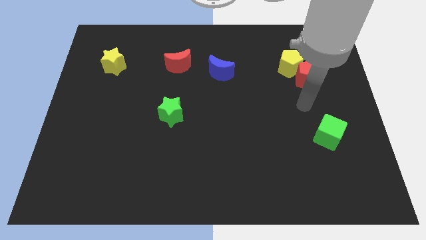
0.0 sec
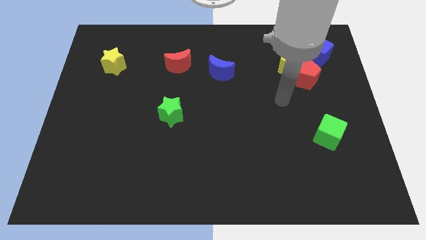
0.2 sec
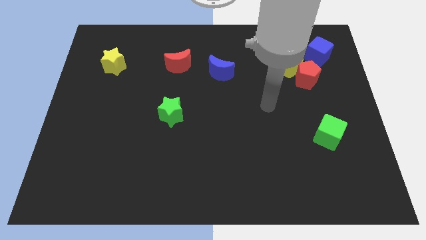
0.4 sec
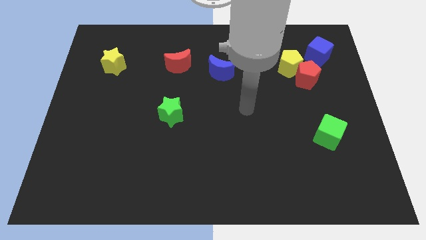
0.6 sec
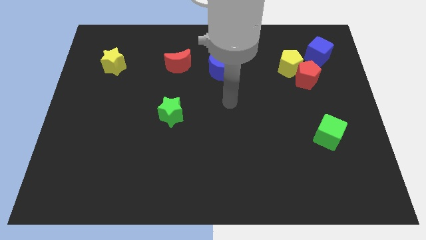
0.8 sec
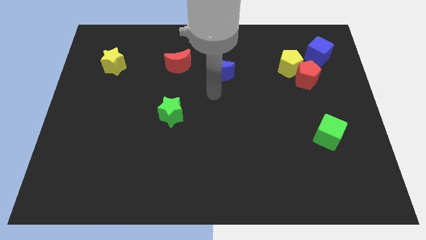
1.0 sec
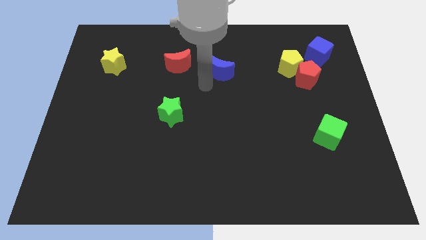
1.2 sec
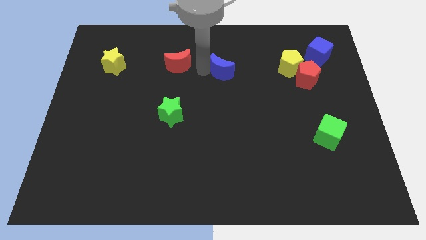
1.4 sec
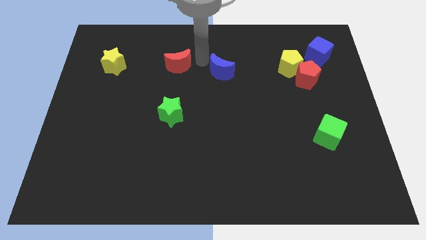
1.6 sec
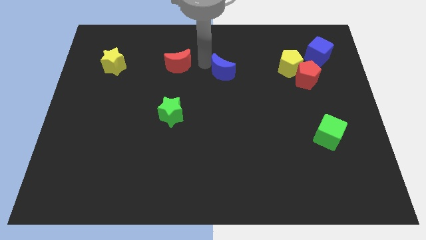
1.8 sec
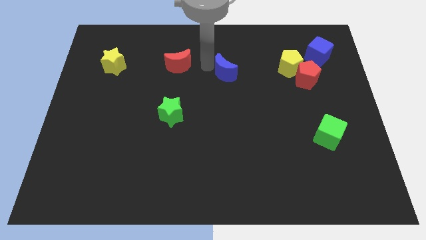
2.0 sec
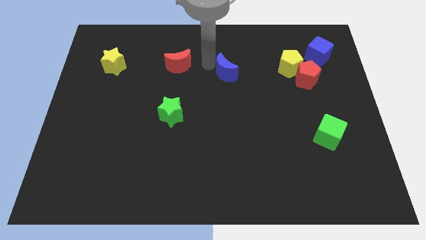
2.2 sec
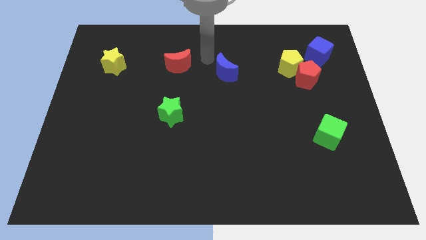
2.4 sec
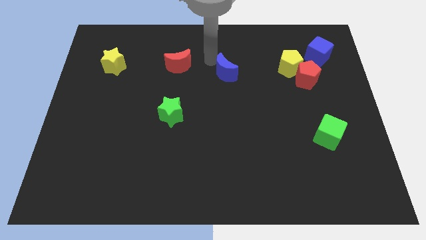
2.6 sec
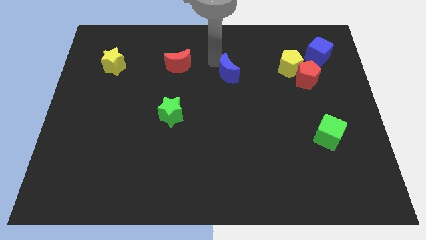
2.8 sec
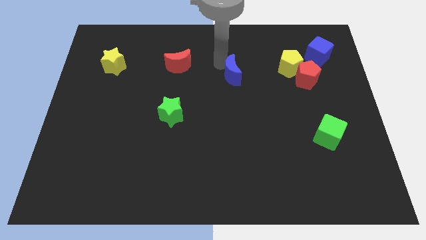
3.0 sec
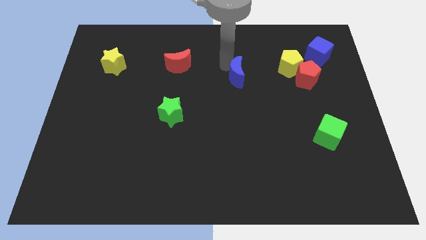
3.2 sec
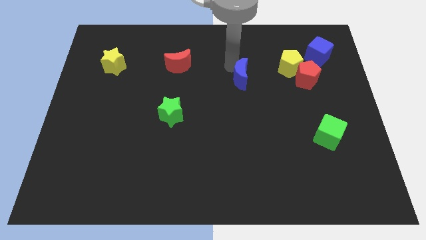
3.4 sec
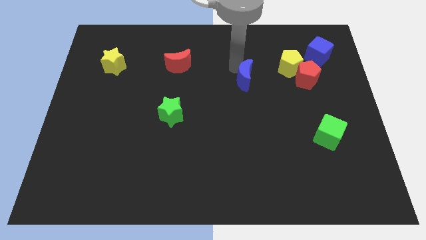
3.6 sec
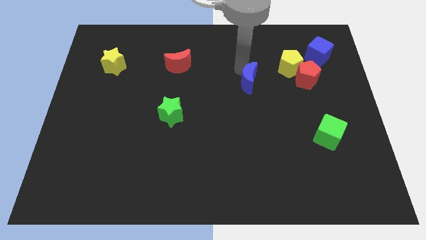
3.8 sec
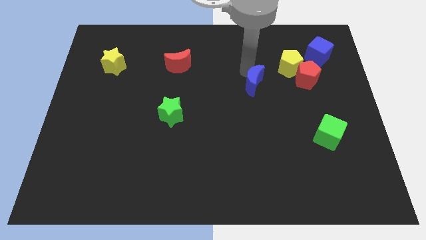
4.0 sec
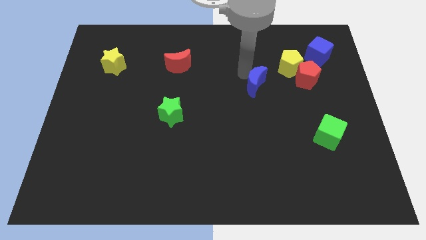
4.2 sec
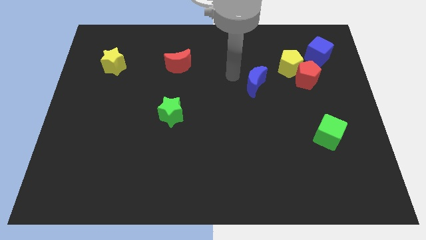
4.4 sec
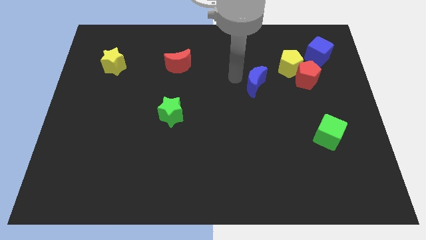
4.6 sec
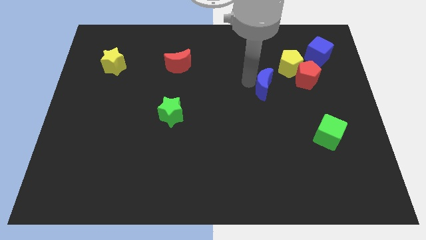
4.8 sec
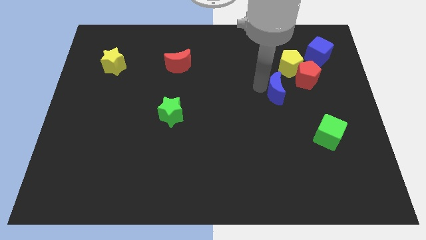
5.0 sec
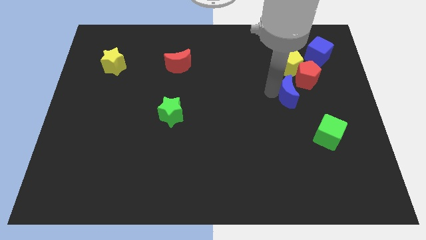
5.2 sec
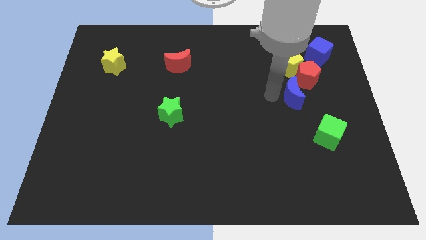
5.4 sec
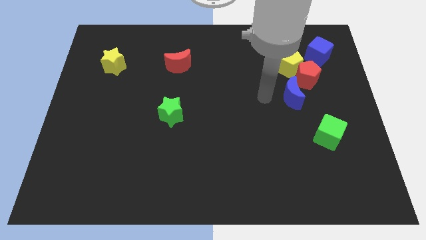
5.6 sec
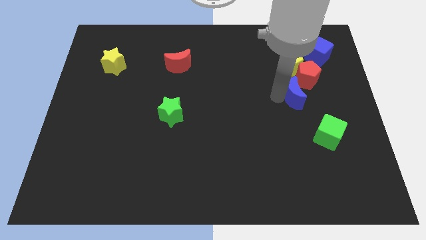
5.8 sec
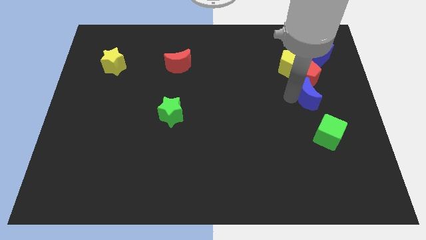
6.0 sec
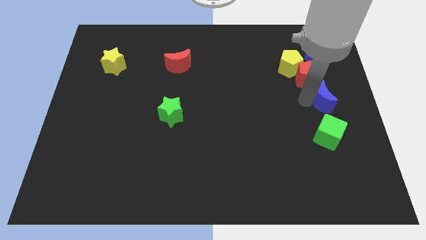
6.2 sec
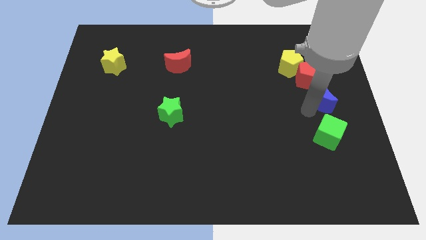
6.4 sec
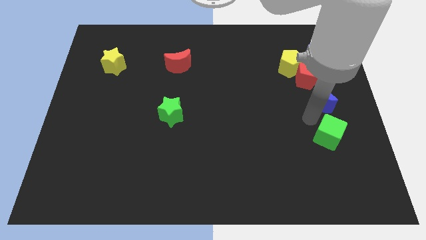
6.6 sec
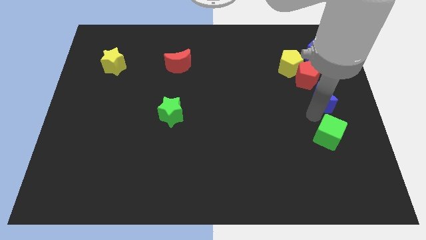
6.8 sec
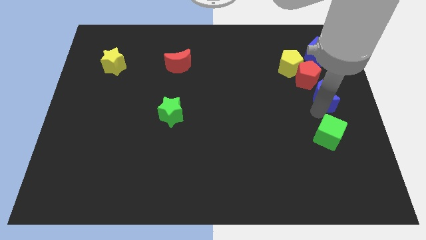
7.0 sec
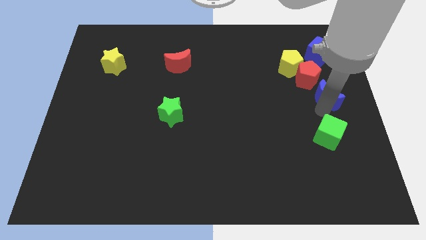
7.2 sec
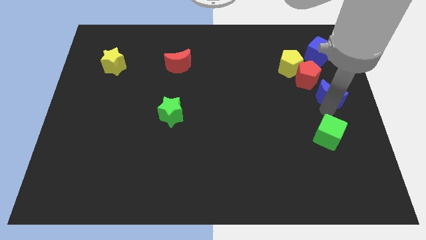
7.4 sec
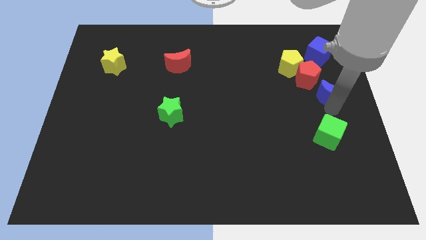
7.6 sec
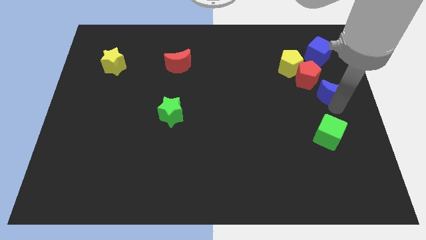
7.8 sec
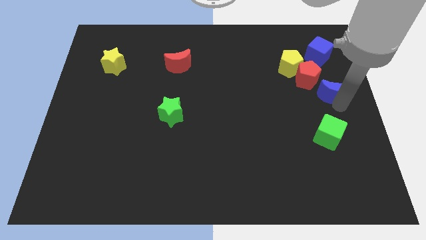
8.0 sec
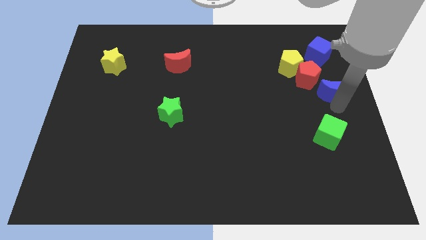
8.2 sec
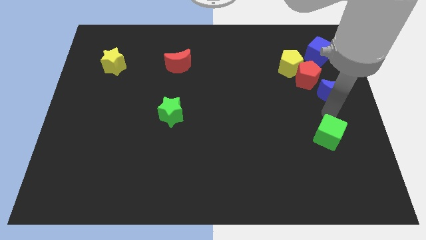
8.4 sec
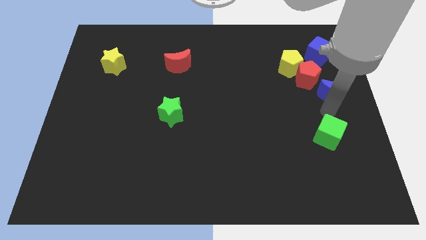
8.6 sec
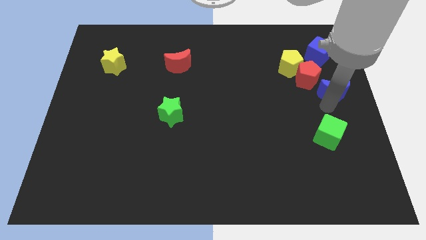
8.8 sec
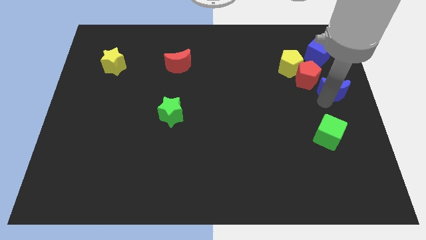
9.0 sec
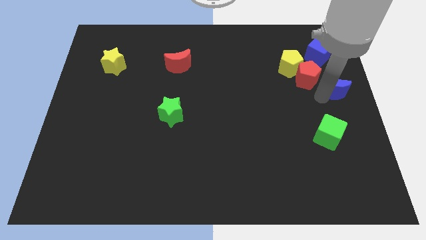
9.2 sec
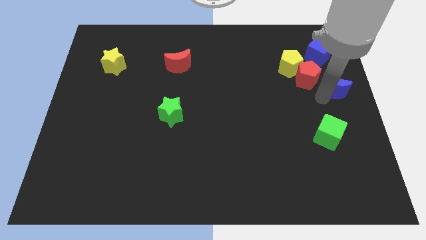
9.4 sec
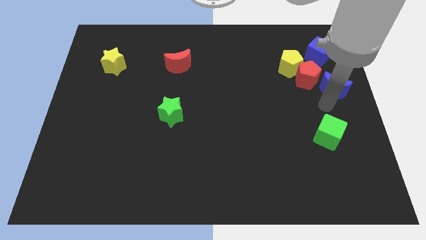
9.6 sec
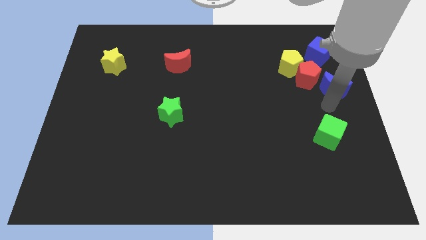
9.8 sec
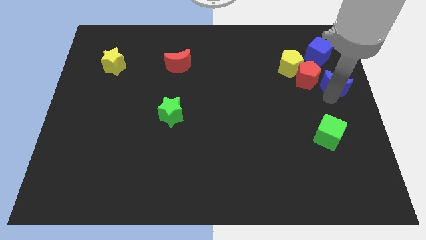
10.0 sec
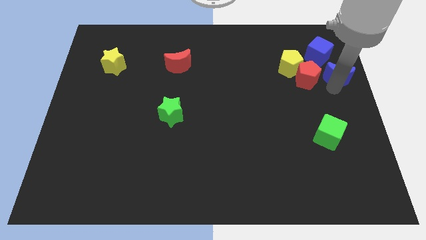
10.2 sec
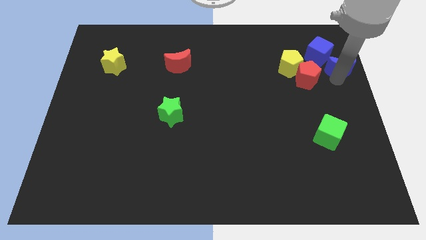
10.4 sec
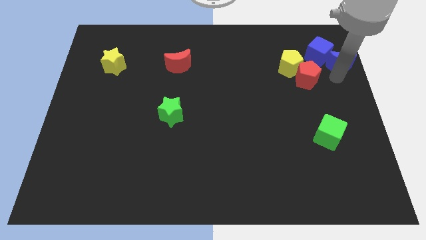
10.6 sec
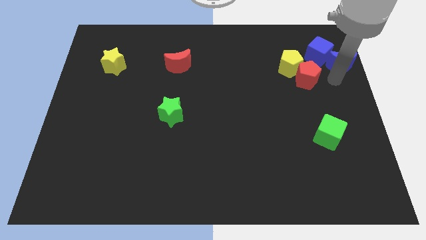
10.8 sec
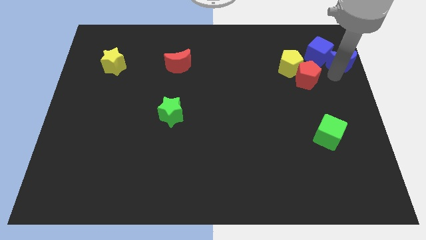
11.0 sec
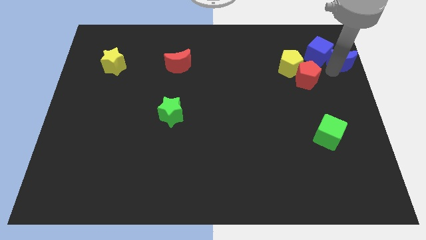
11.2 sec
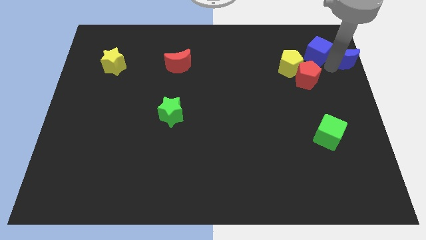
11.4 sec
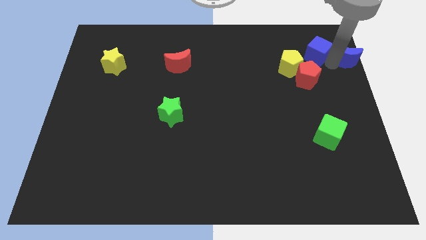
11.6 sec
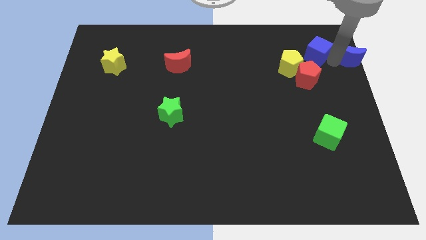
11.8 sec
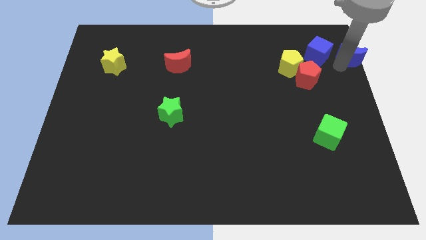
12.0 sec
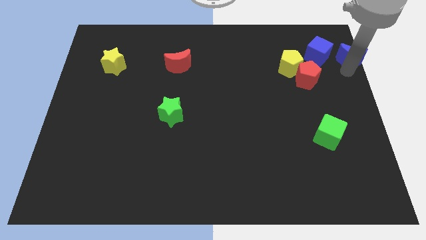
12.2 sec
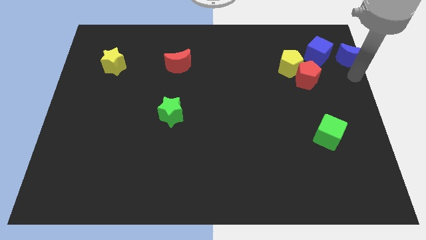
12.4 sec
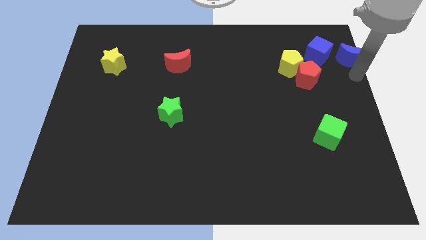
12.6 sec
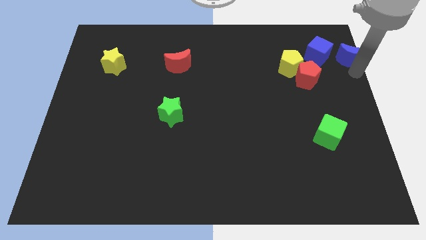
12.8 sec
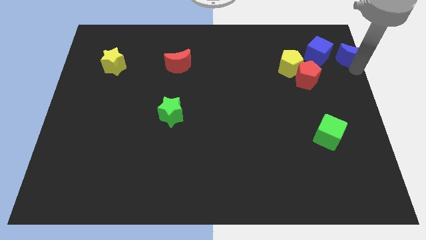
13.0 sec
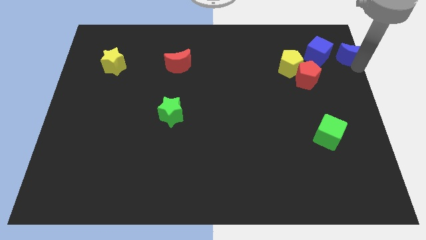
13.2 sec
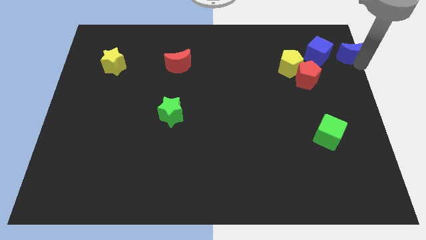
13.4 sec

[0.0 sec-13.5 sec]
slide the blue moon to the top right
